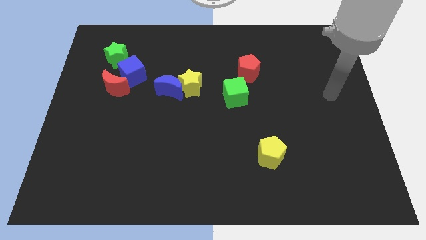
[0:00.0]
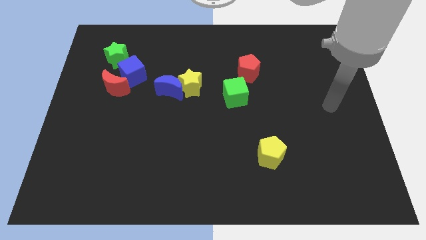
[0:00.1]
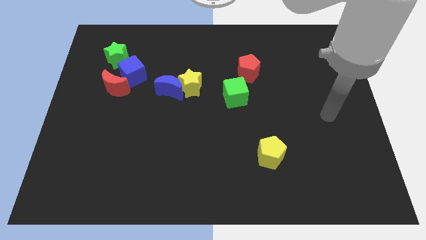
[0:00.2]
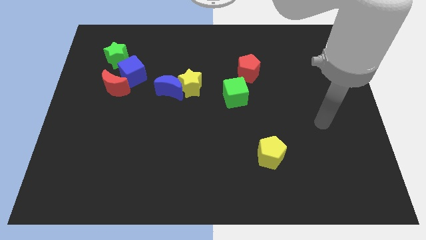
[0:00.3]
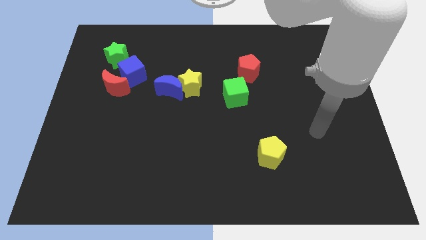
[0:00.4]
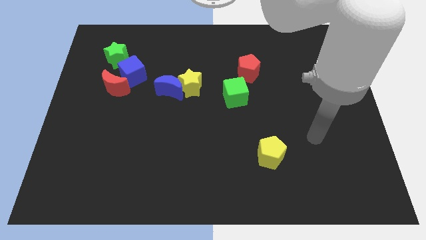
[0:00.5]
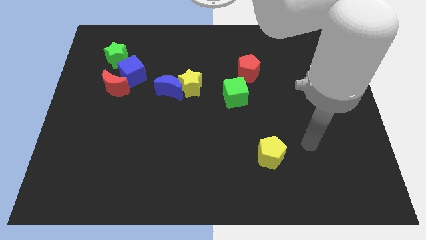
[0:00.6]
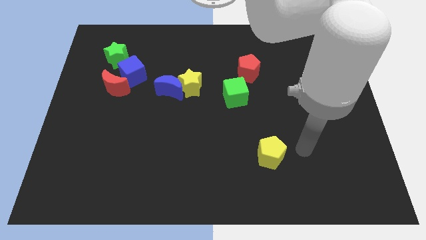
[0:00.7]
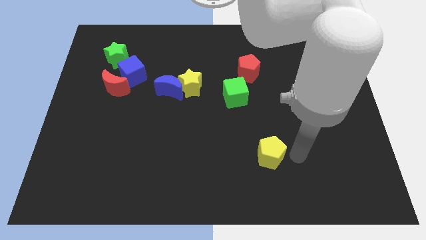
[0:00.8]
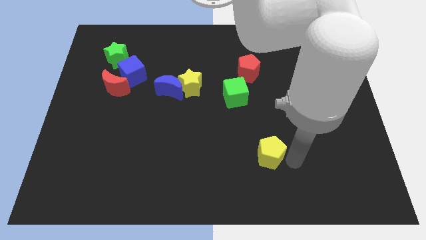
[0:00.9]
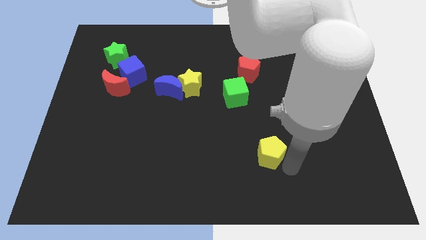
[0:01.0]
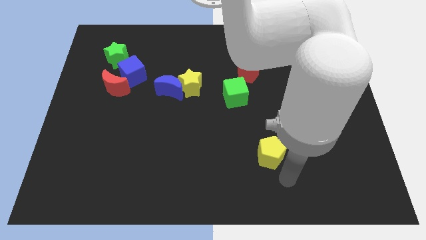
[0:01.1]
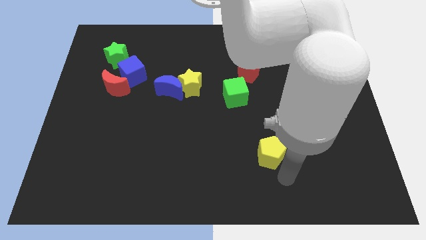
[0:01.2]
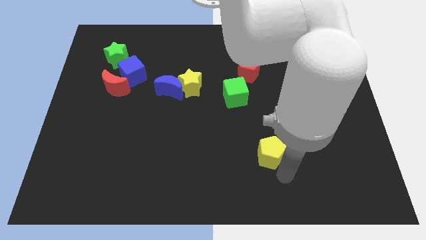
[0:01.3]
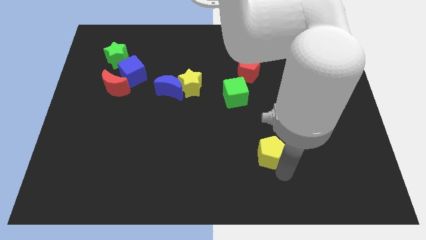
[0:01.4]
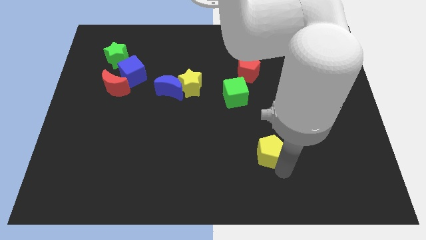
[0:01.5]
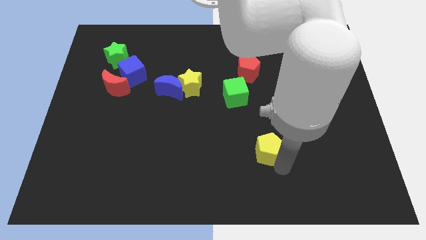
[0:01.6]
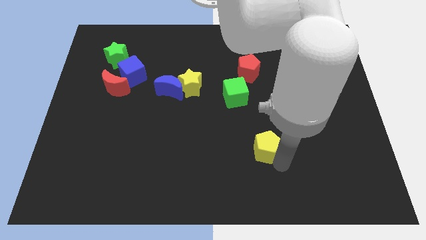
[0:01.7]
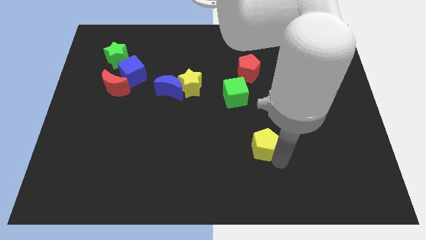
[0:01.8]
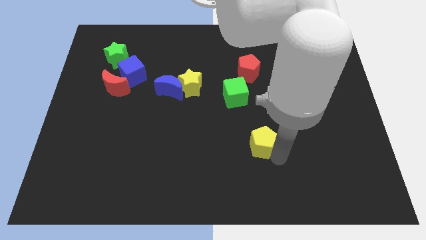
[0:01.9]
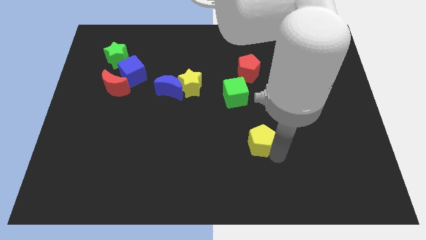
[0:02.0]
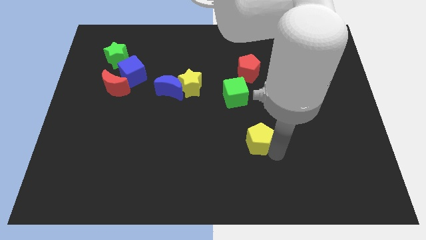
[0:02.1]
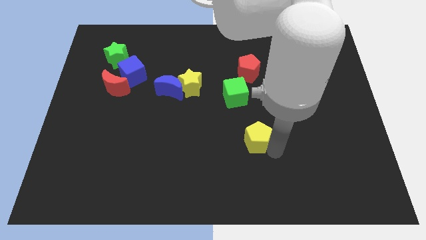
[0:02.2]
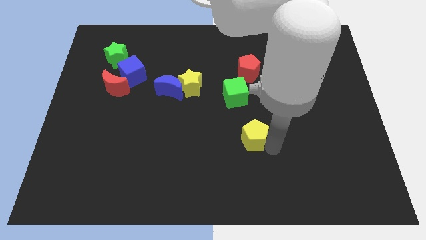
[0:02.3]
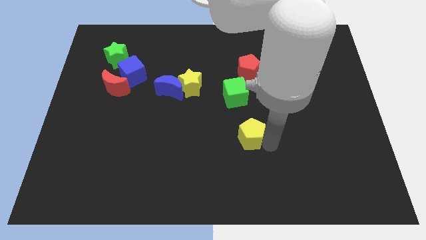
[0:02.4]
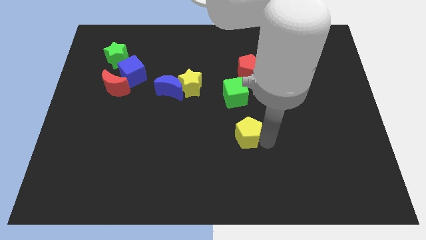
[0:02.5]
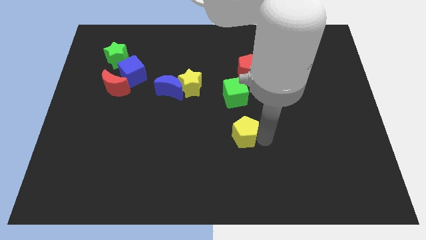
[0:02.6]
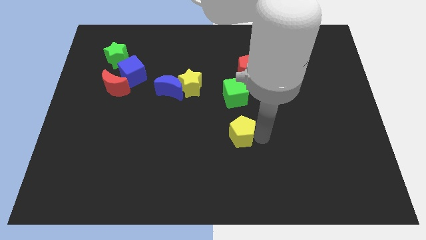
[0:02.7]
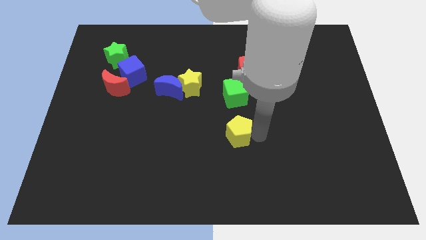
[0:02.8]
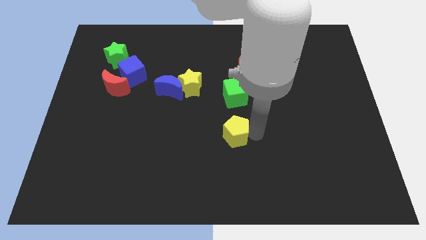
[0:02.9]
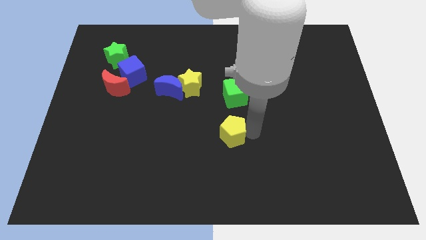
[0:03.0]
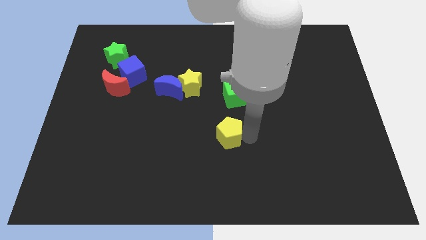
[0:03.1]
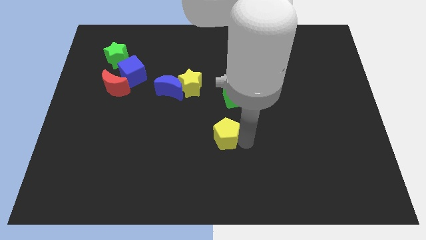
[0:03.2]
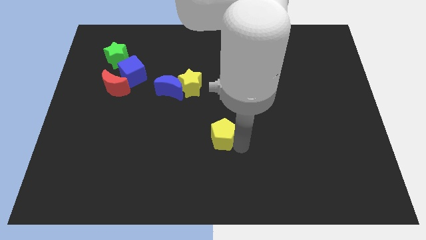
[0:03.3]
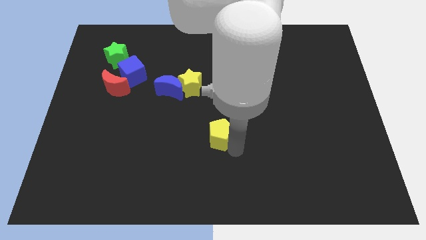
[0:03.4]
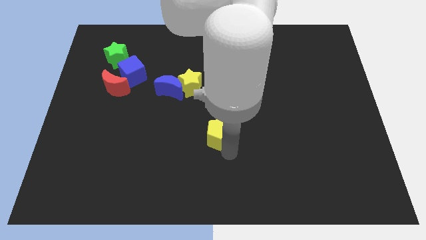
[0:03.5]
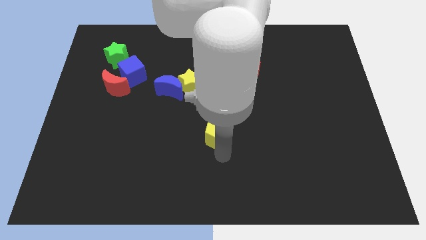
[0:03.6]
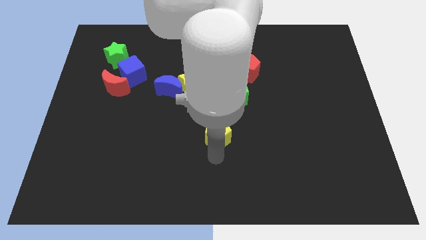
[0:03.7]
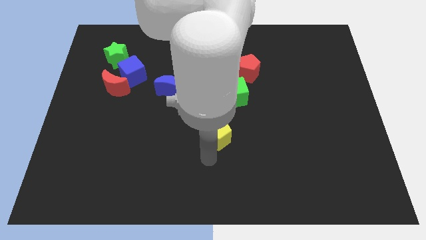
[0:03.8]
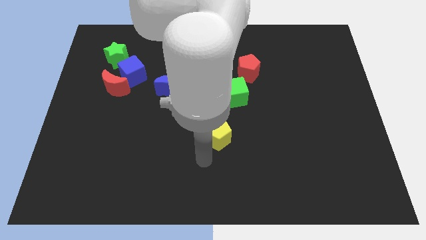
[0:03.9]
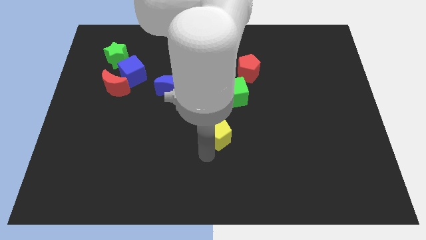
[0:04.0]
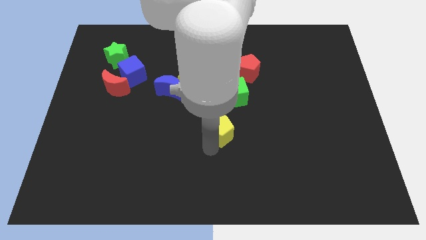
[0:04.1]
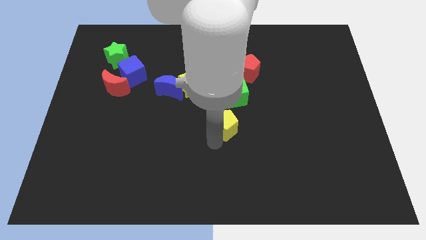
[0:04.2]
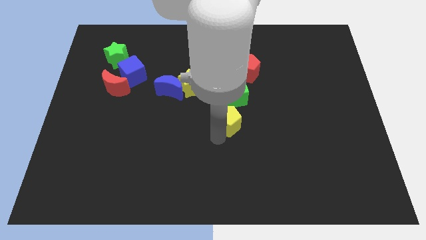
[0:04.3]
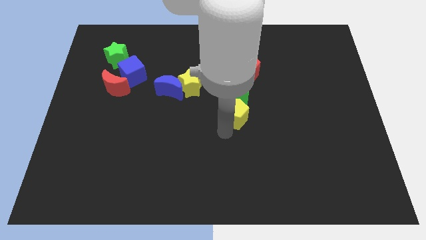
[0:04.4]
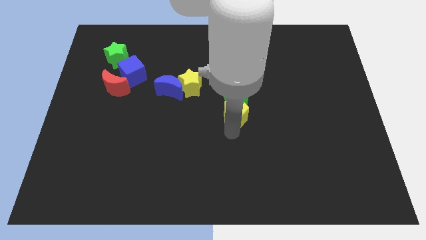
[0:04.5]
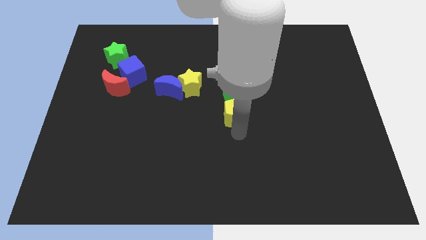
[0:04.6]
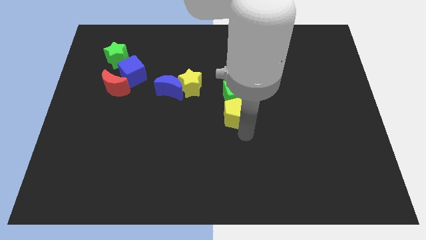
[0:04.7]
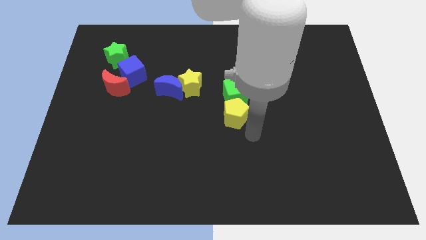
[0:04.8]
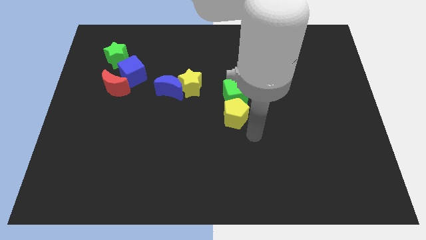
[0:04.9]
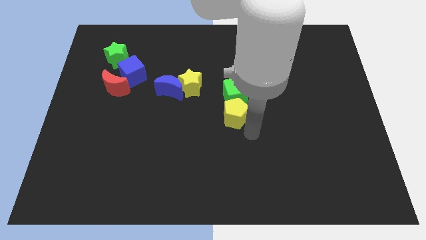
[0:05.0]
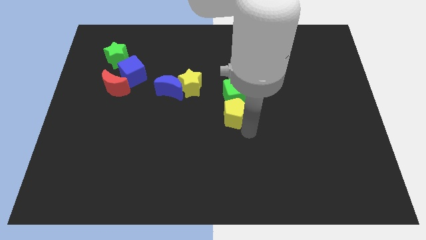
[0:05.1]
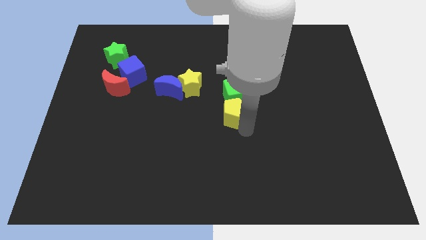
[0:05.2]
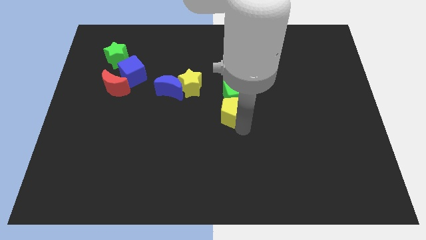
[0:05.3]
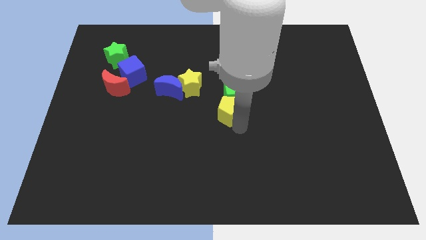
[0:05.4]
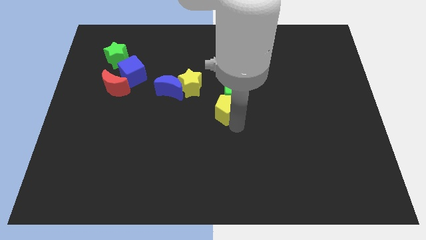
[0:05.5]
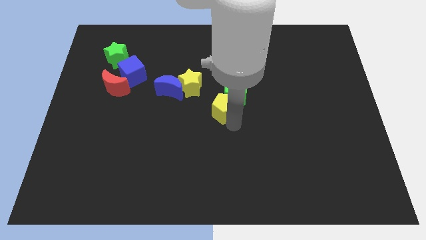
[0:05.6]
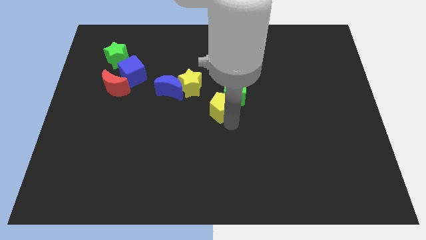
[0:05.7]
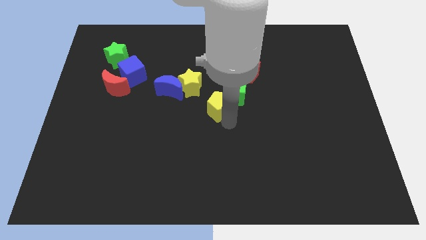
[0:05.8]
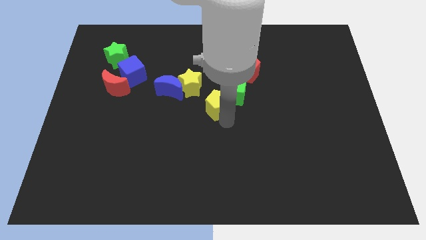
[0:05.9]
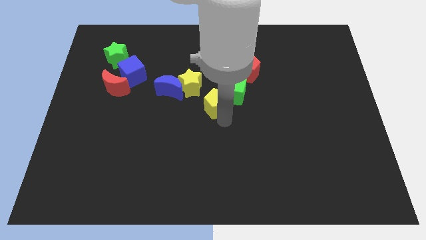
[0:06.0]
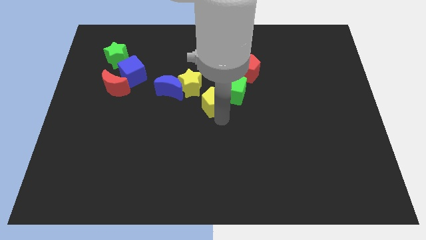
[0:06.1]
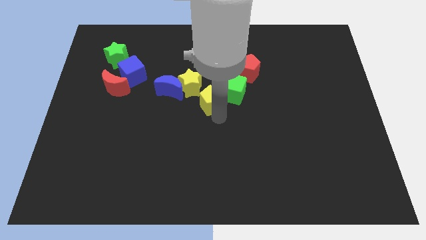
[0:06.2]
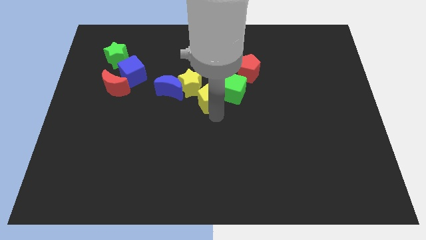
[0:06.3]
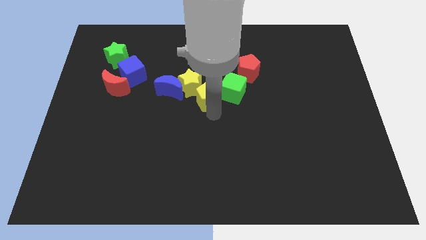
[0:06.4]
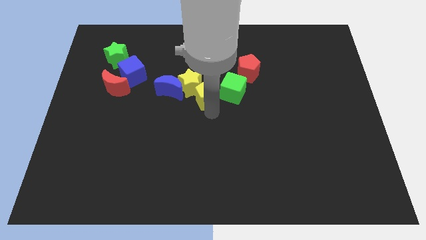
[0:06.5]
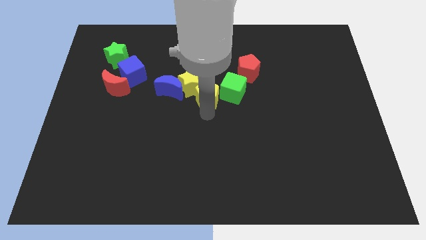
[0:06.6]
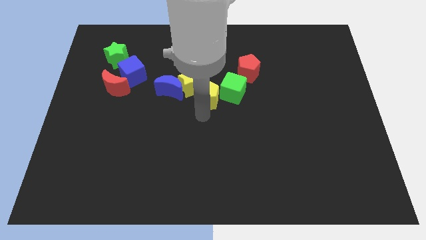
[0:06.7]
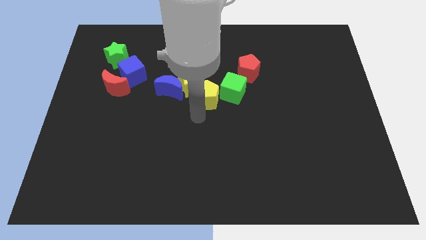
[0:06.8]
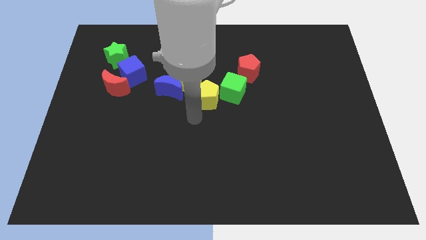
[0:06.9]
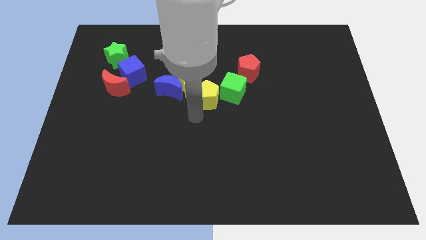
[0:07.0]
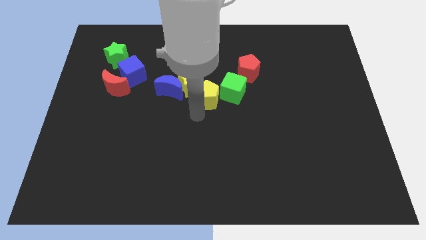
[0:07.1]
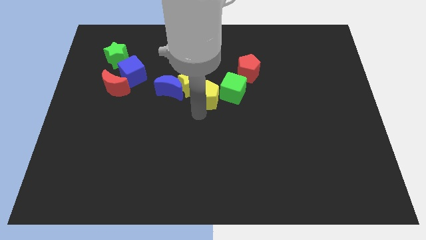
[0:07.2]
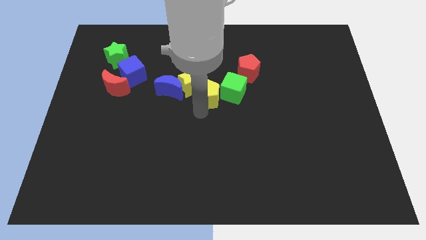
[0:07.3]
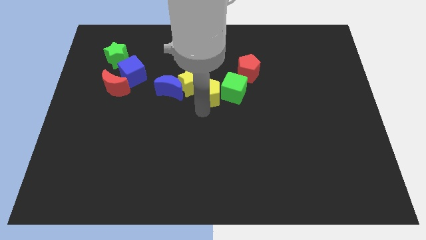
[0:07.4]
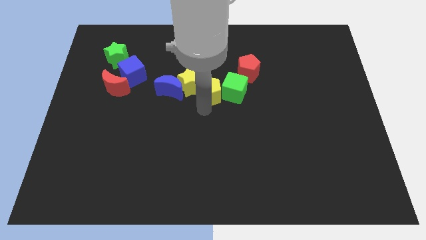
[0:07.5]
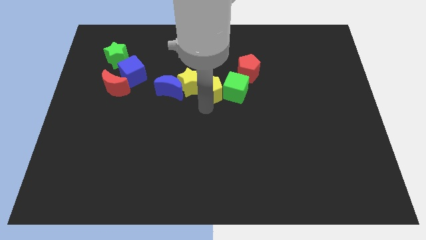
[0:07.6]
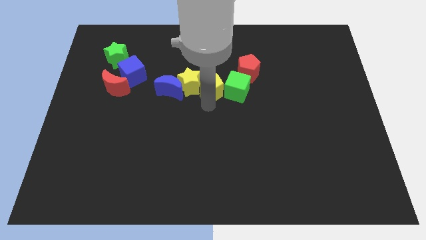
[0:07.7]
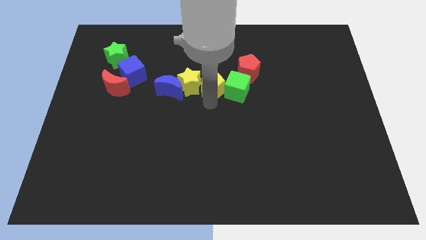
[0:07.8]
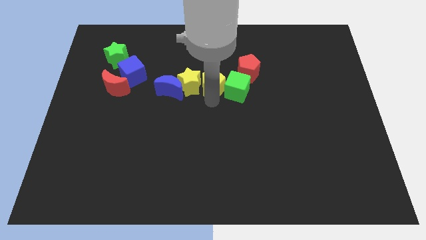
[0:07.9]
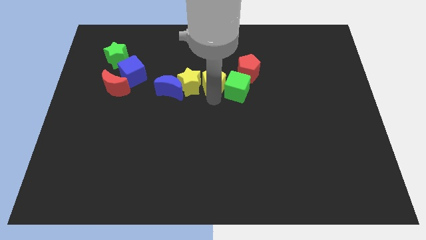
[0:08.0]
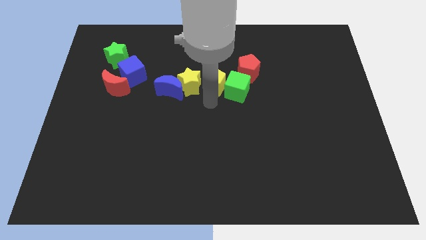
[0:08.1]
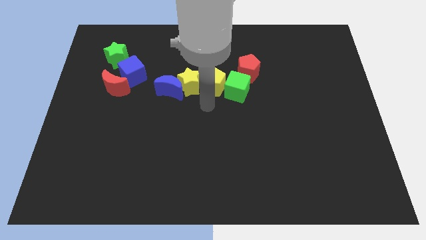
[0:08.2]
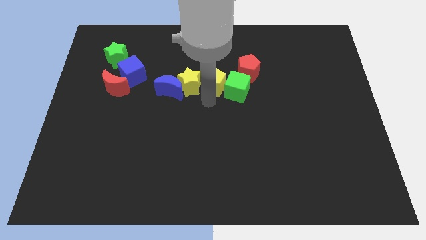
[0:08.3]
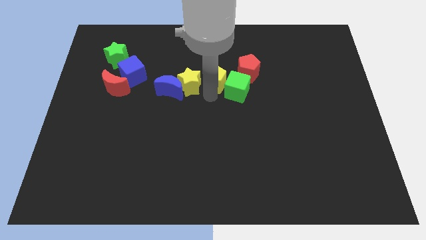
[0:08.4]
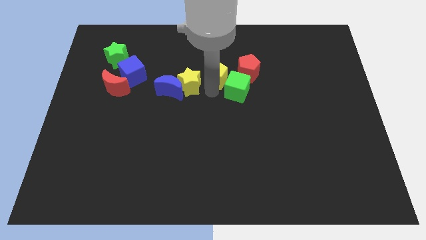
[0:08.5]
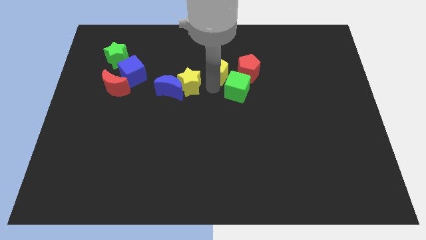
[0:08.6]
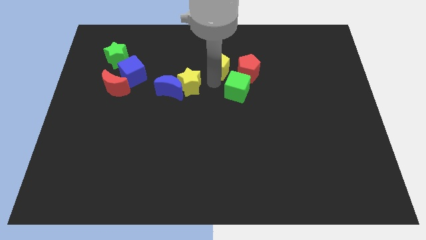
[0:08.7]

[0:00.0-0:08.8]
slide the yellow pentagon diagonally up and to the left of the red pentagon
